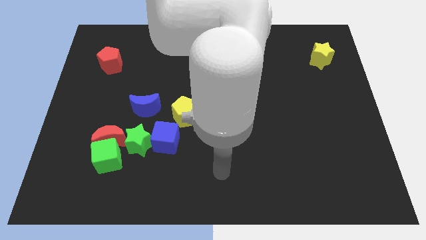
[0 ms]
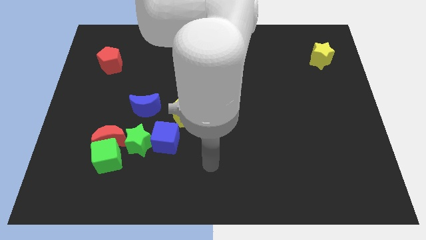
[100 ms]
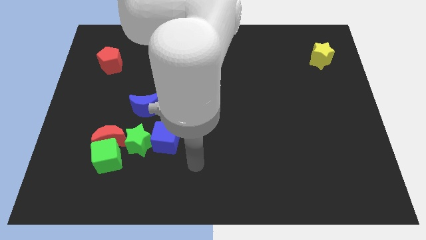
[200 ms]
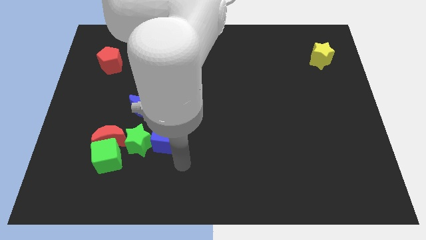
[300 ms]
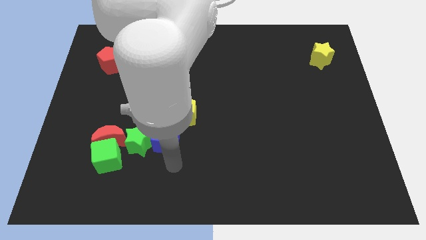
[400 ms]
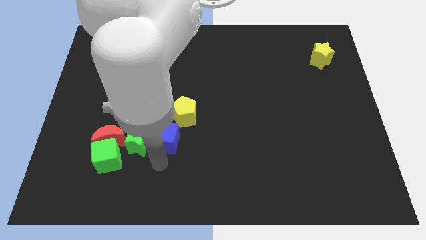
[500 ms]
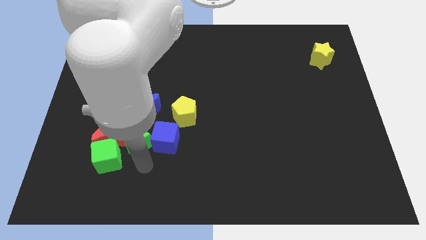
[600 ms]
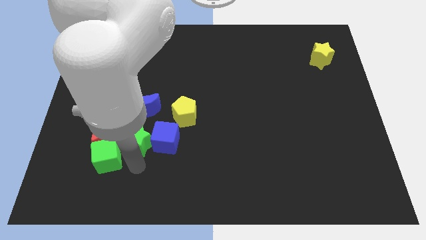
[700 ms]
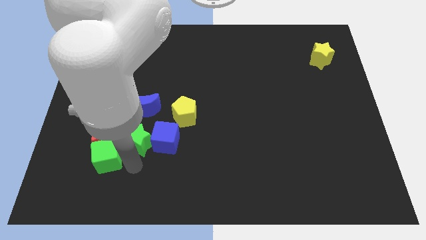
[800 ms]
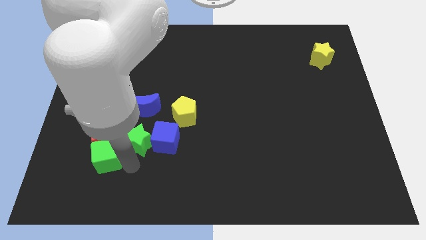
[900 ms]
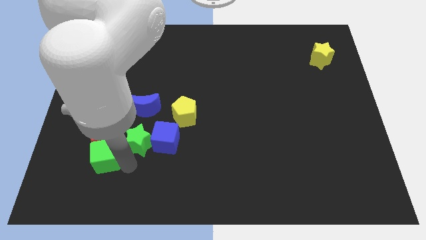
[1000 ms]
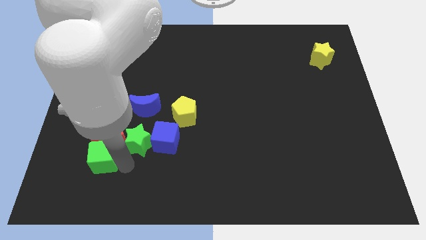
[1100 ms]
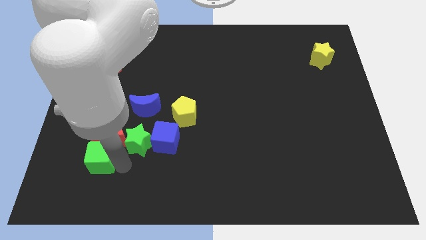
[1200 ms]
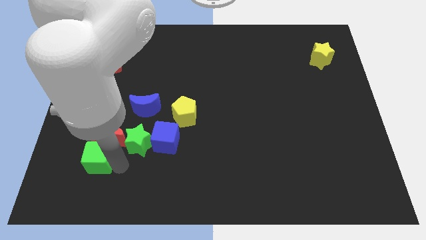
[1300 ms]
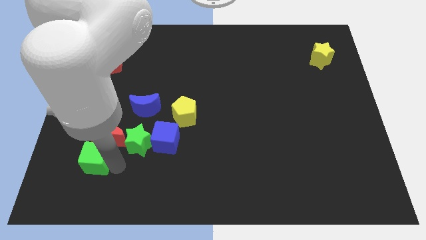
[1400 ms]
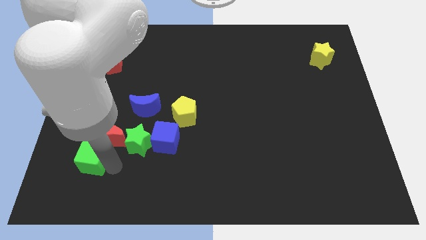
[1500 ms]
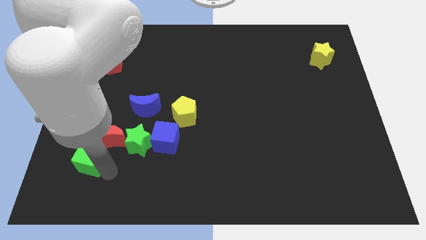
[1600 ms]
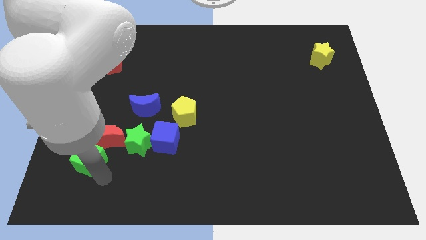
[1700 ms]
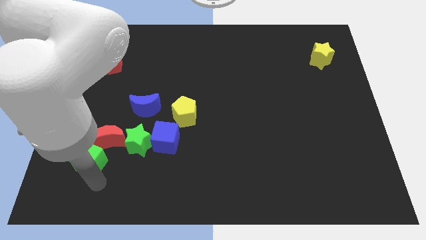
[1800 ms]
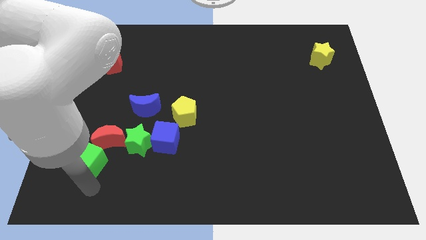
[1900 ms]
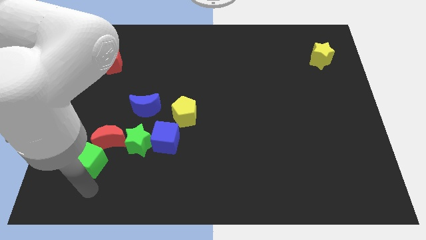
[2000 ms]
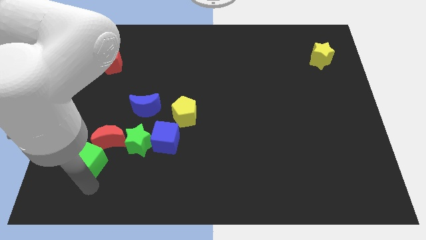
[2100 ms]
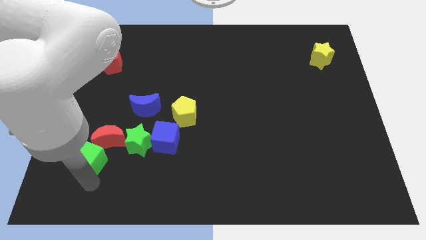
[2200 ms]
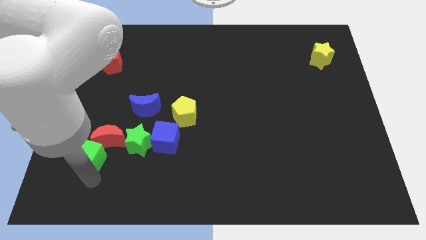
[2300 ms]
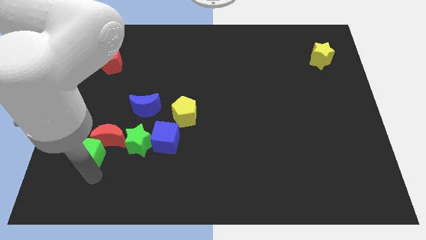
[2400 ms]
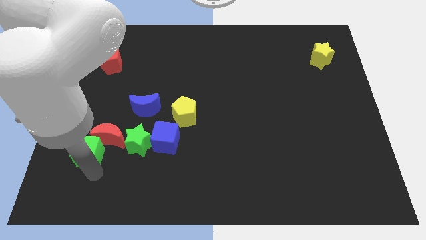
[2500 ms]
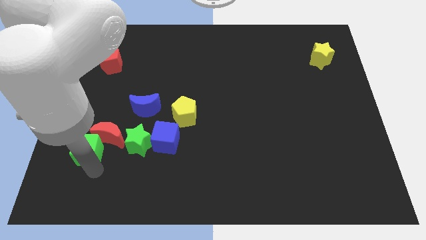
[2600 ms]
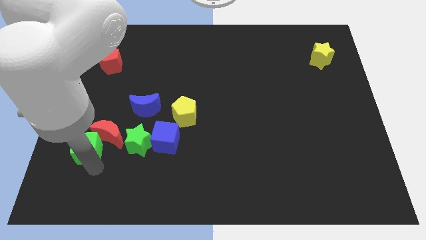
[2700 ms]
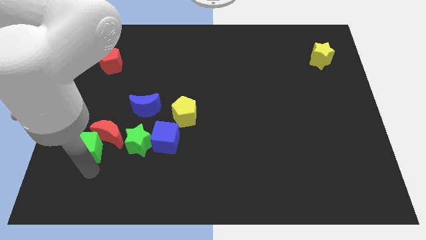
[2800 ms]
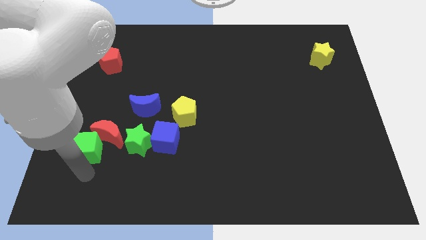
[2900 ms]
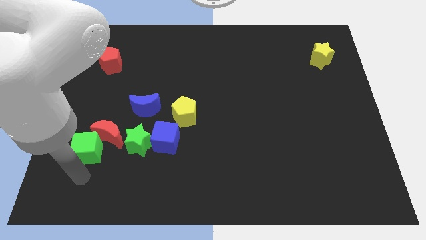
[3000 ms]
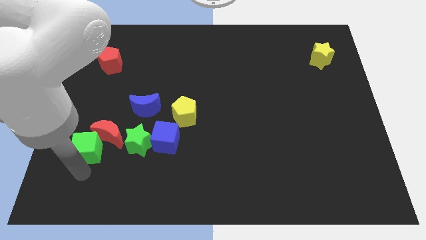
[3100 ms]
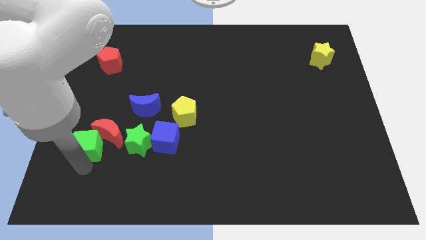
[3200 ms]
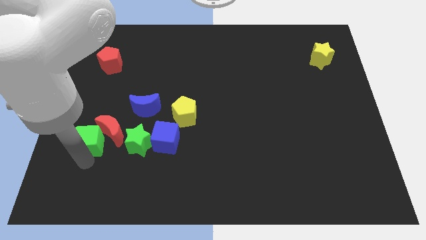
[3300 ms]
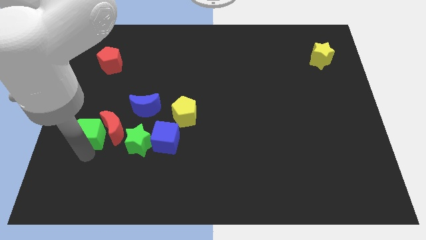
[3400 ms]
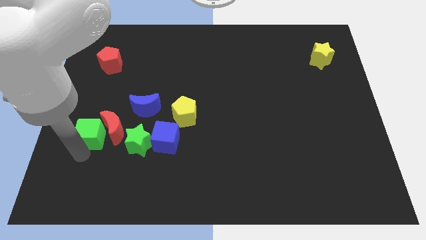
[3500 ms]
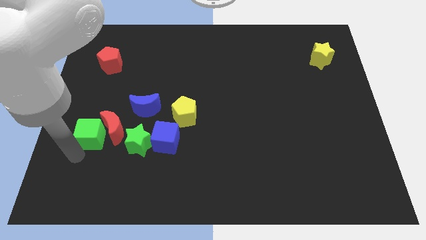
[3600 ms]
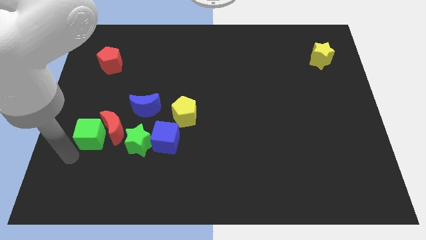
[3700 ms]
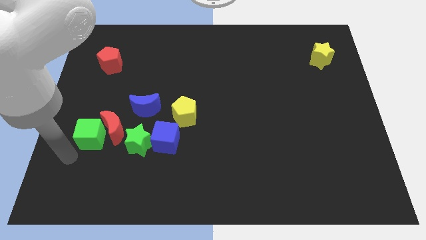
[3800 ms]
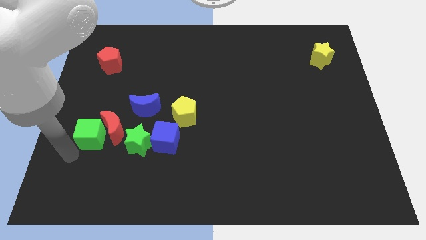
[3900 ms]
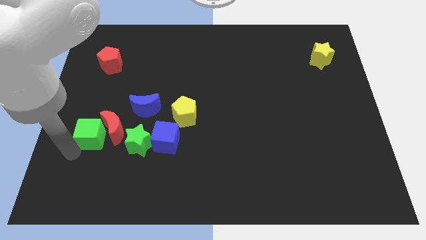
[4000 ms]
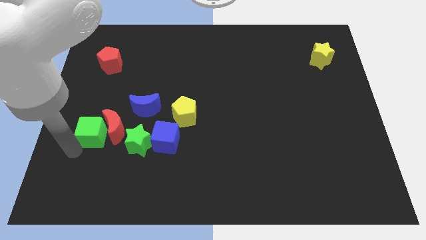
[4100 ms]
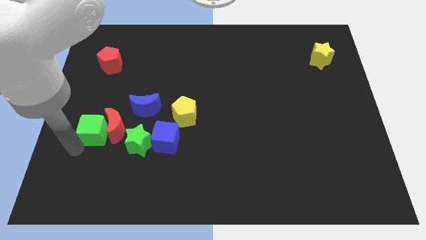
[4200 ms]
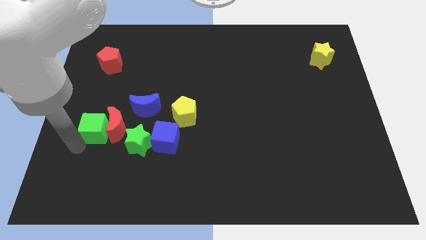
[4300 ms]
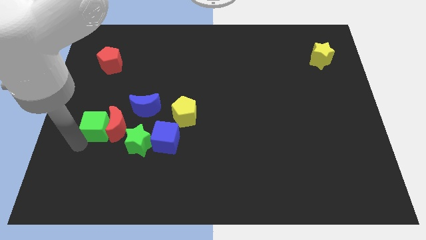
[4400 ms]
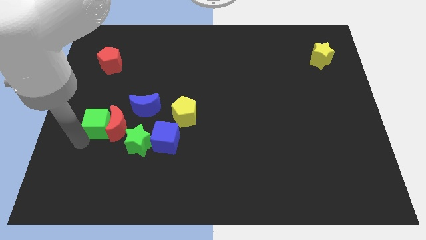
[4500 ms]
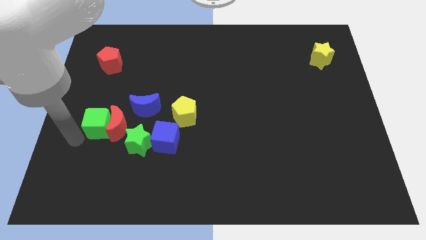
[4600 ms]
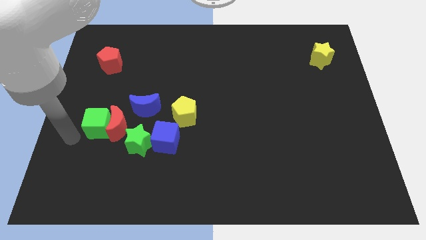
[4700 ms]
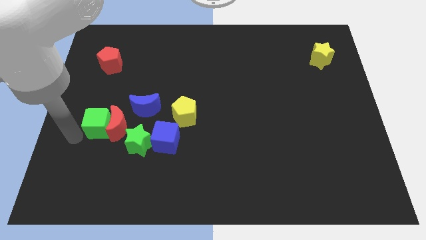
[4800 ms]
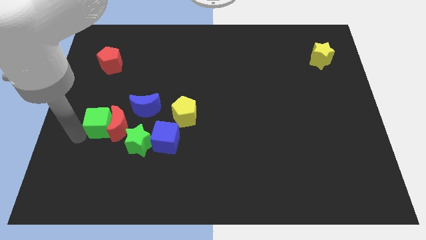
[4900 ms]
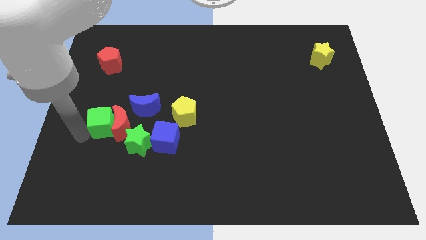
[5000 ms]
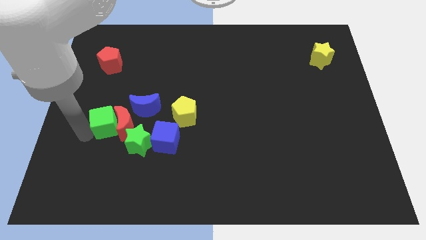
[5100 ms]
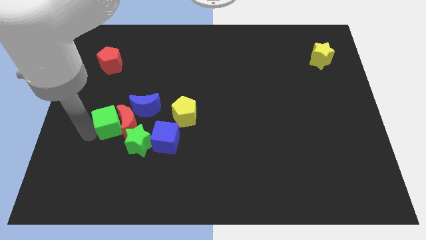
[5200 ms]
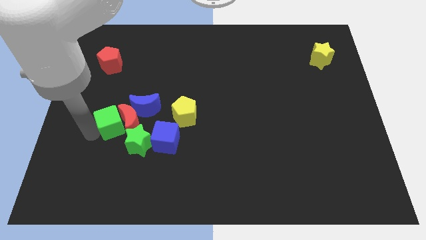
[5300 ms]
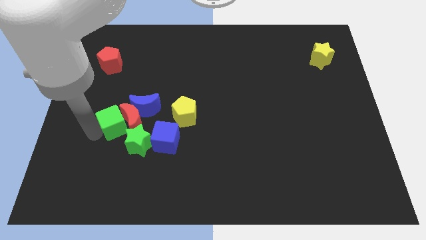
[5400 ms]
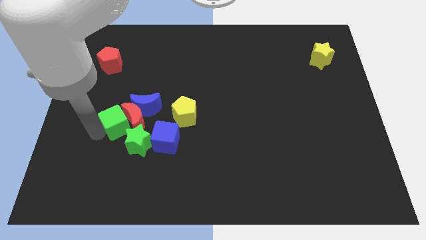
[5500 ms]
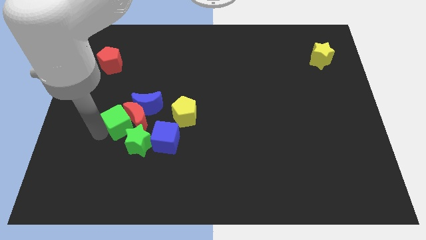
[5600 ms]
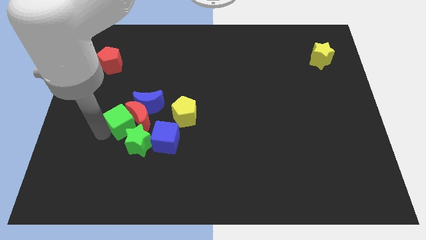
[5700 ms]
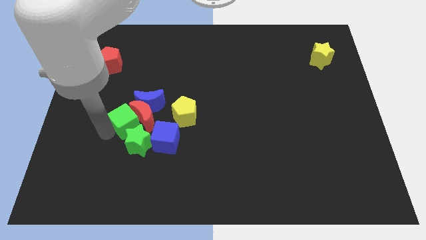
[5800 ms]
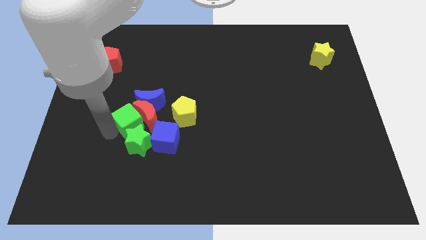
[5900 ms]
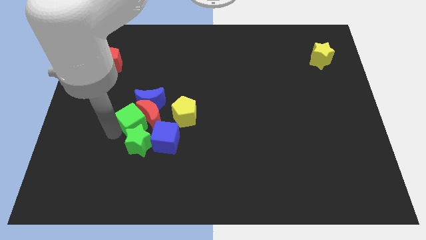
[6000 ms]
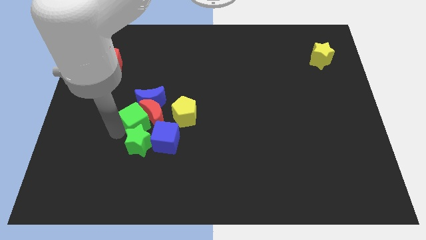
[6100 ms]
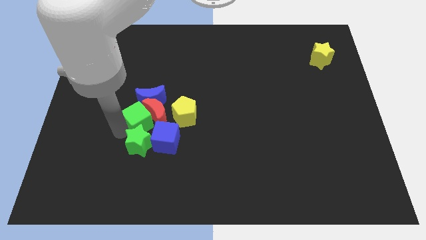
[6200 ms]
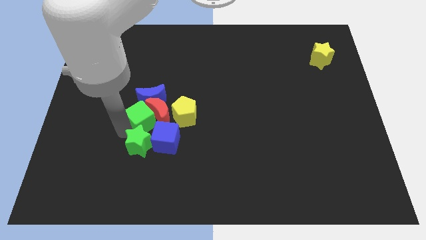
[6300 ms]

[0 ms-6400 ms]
move the green cube towards the blue moon

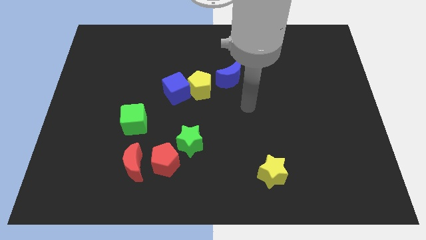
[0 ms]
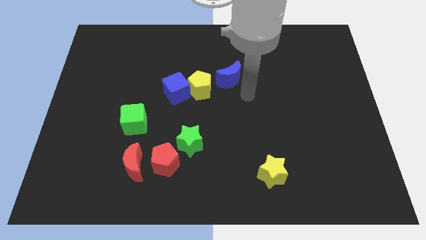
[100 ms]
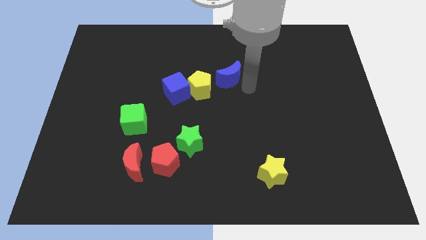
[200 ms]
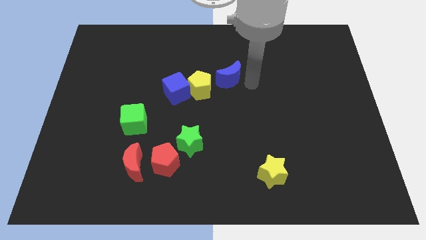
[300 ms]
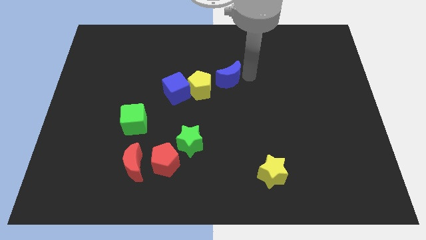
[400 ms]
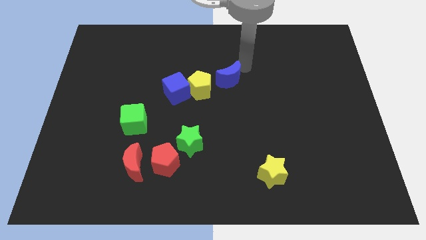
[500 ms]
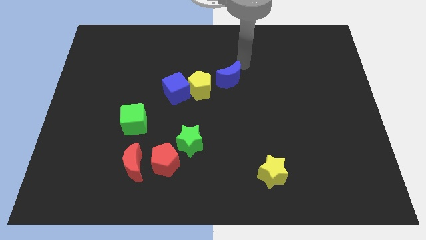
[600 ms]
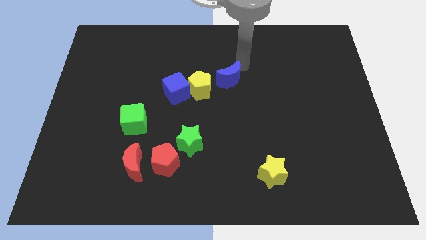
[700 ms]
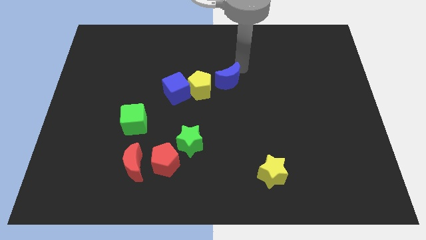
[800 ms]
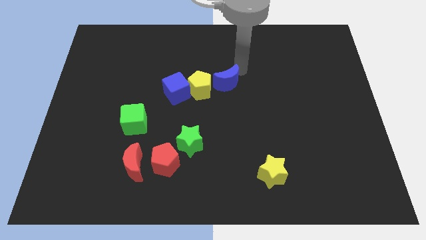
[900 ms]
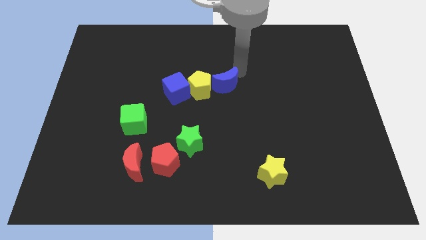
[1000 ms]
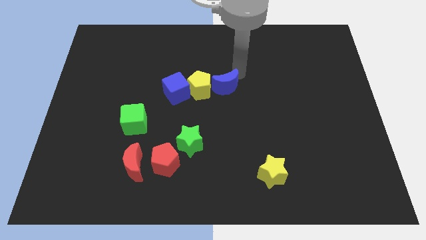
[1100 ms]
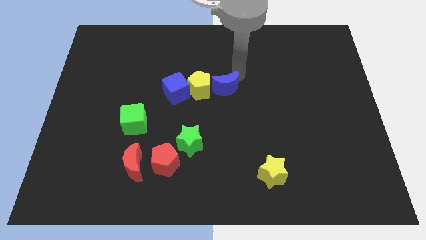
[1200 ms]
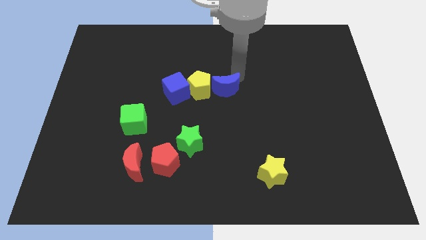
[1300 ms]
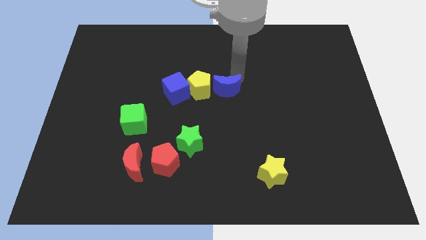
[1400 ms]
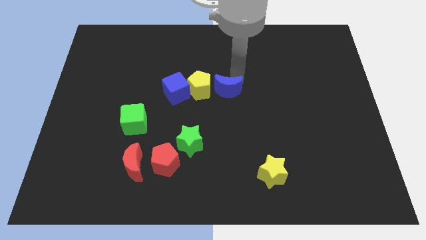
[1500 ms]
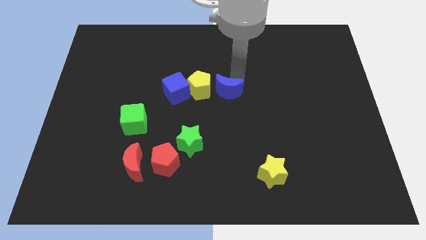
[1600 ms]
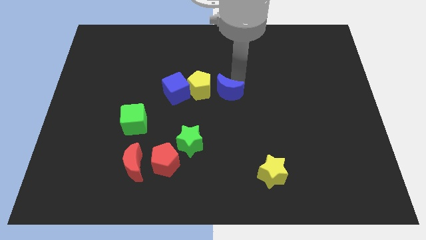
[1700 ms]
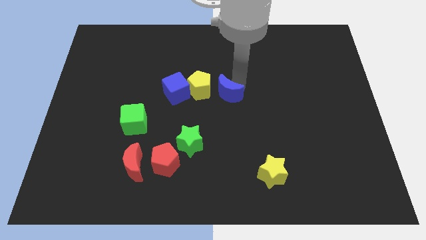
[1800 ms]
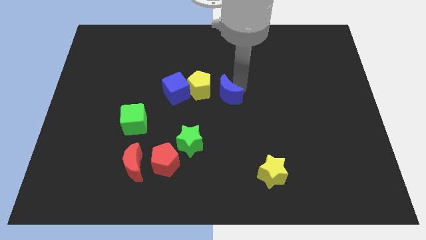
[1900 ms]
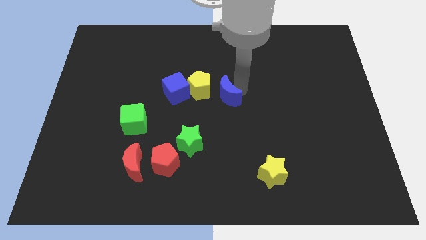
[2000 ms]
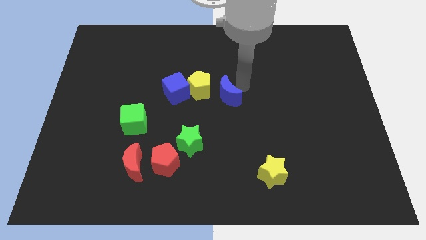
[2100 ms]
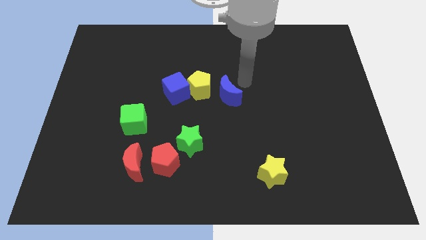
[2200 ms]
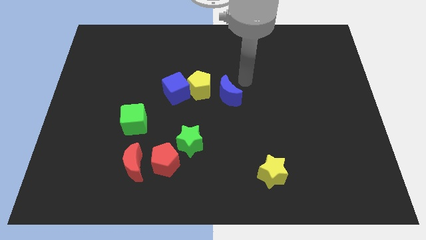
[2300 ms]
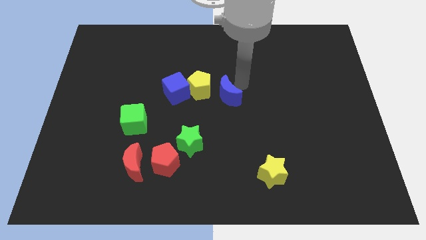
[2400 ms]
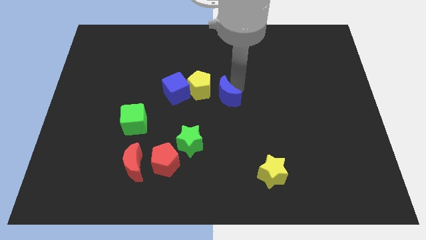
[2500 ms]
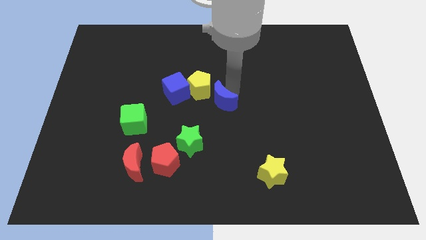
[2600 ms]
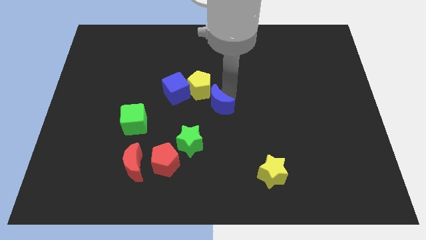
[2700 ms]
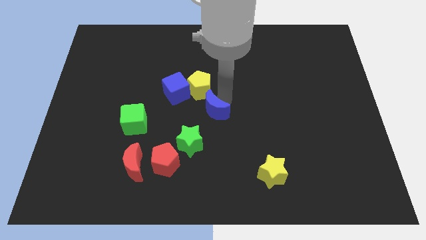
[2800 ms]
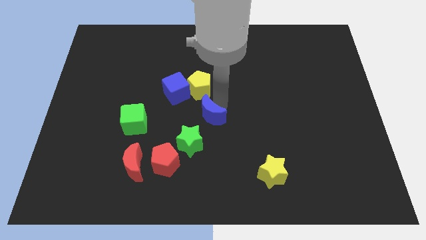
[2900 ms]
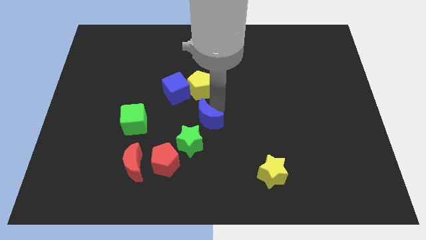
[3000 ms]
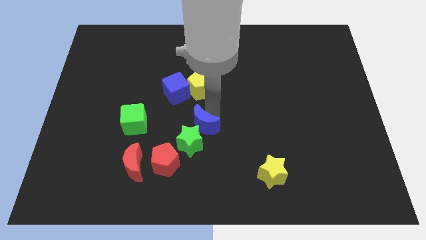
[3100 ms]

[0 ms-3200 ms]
push the blue moon to the green star
